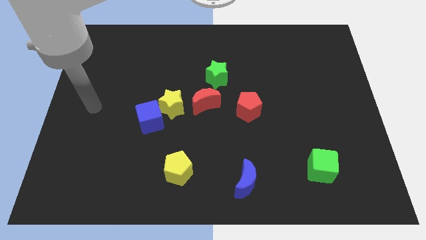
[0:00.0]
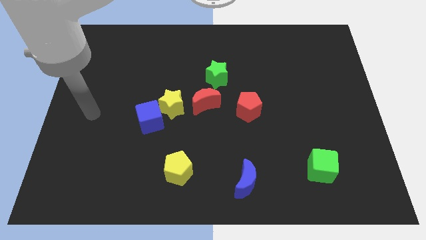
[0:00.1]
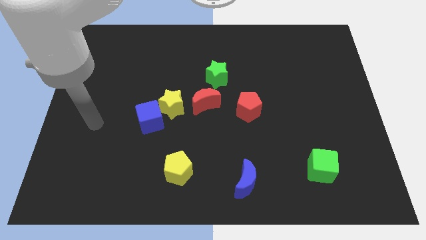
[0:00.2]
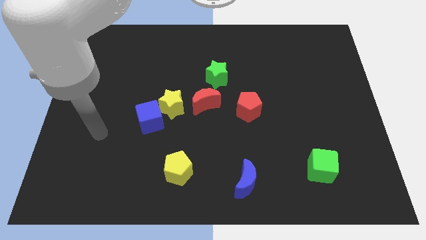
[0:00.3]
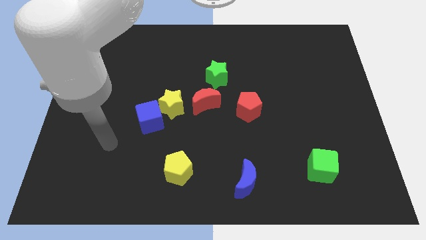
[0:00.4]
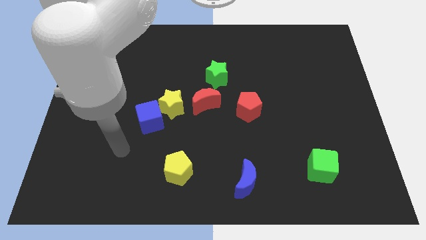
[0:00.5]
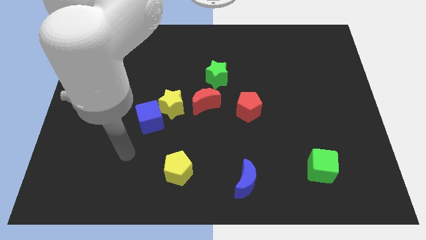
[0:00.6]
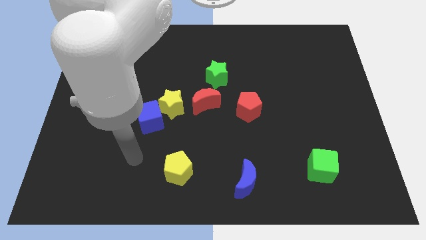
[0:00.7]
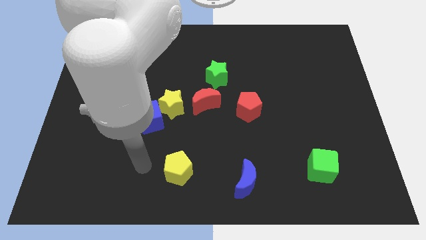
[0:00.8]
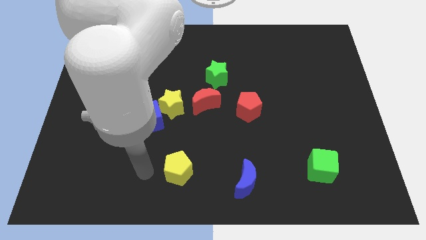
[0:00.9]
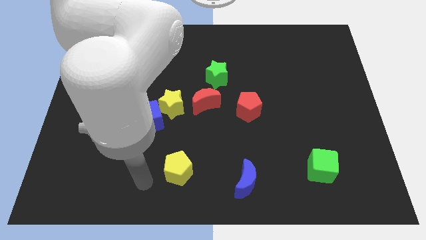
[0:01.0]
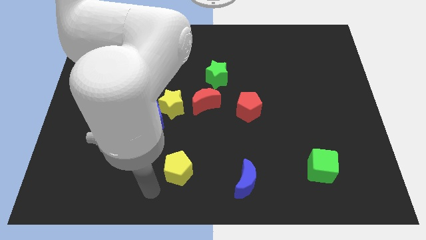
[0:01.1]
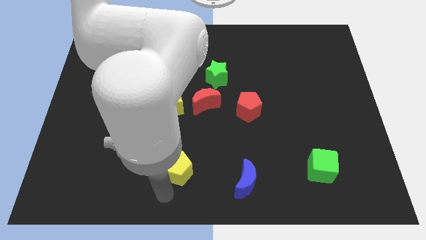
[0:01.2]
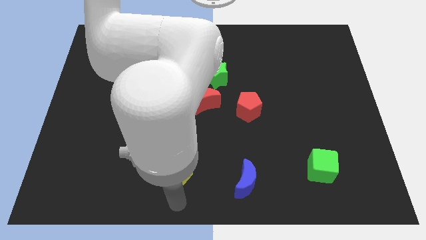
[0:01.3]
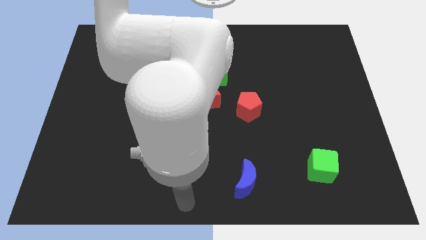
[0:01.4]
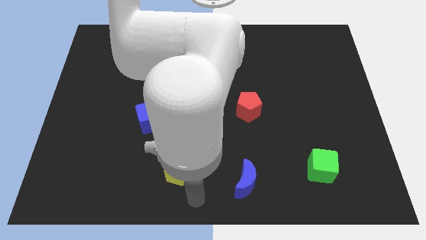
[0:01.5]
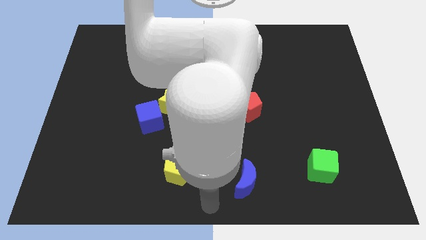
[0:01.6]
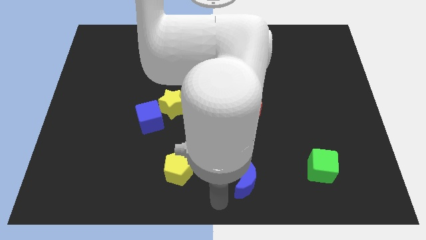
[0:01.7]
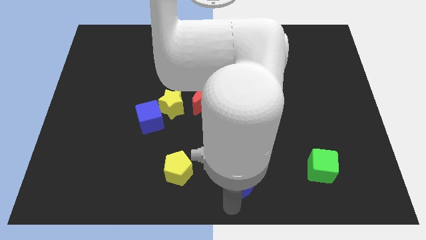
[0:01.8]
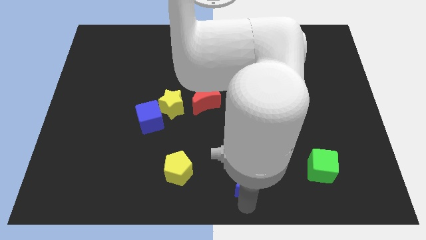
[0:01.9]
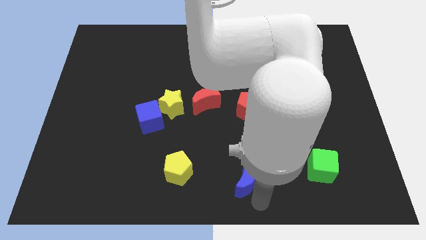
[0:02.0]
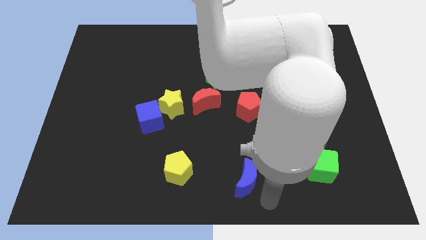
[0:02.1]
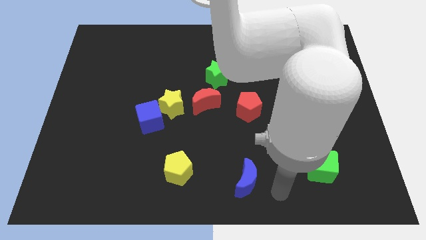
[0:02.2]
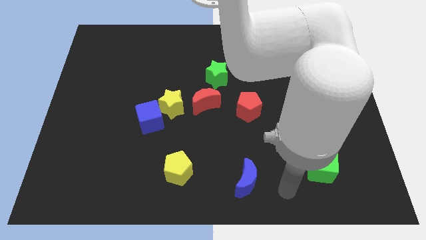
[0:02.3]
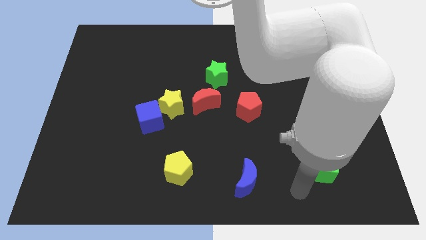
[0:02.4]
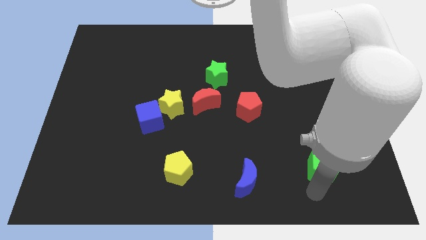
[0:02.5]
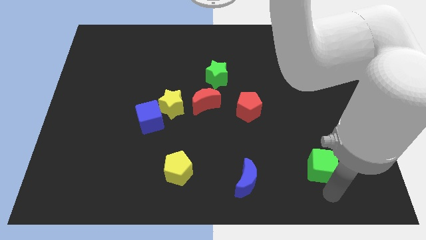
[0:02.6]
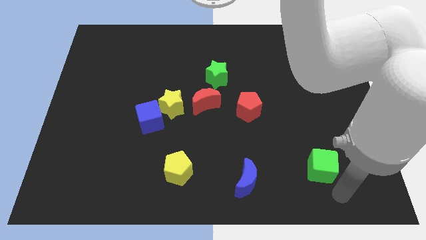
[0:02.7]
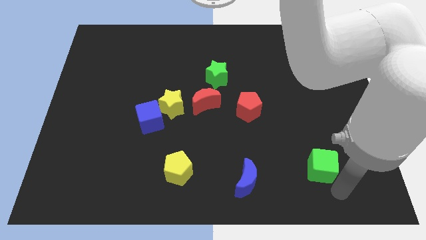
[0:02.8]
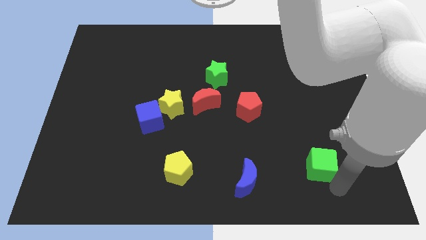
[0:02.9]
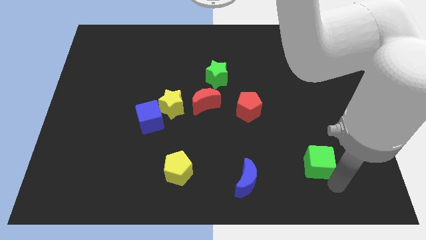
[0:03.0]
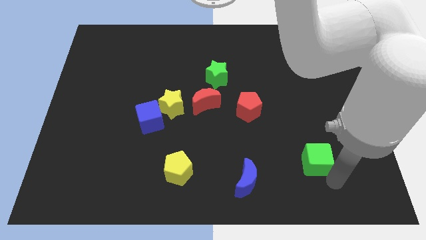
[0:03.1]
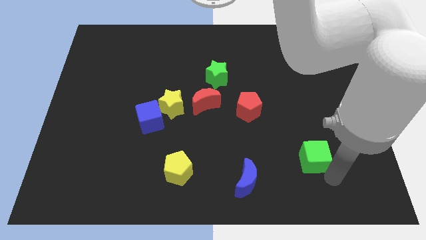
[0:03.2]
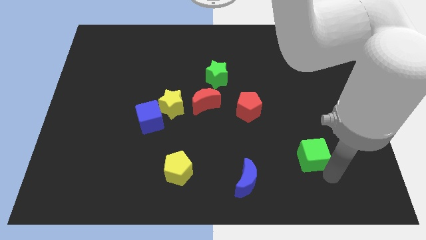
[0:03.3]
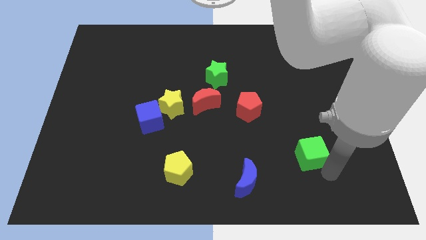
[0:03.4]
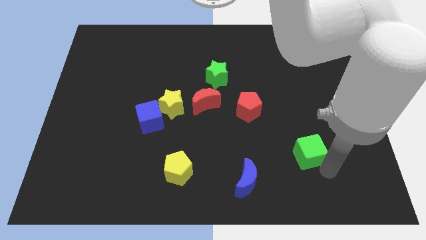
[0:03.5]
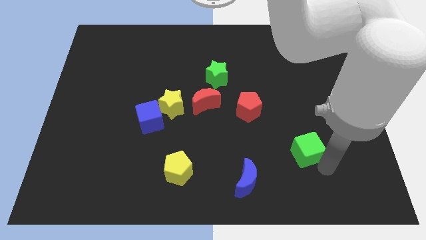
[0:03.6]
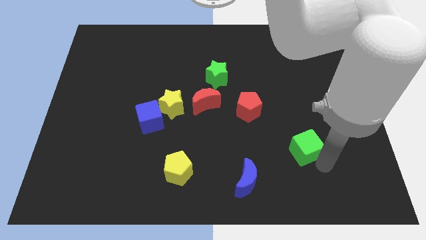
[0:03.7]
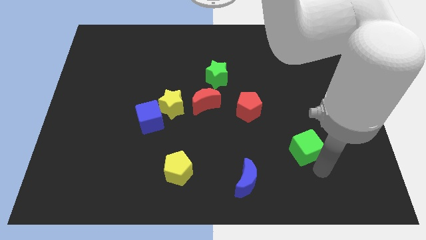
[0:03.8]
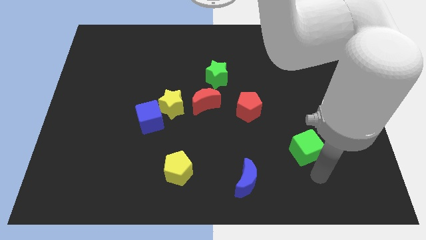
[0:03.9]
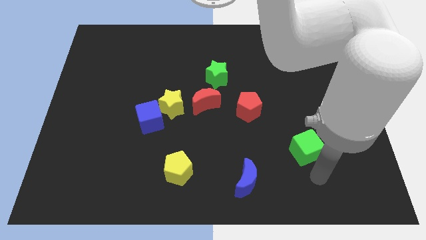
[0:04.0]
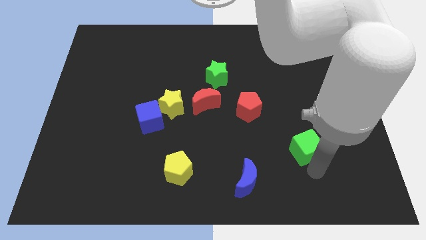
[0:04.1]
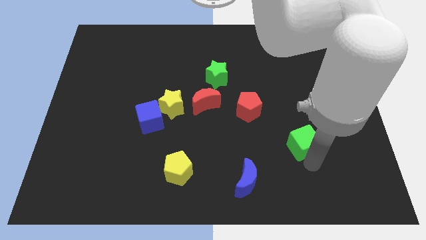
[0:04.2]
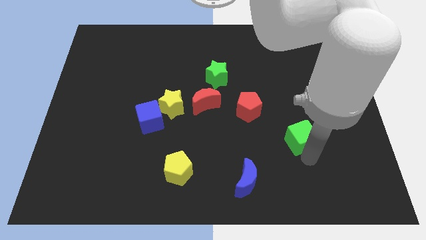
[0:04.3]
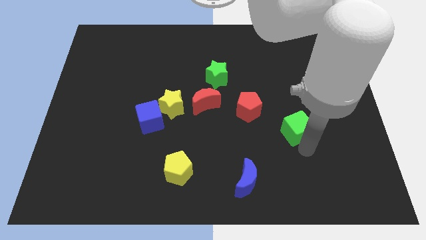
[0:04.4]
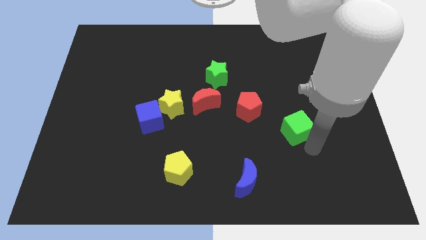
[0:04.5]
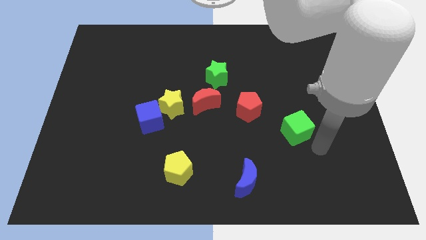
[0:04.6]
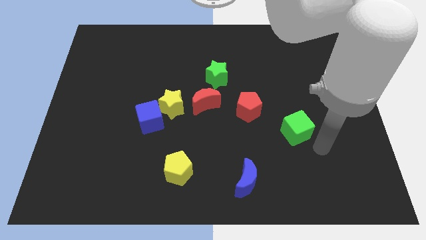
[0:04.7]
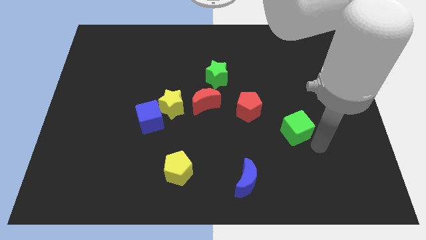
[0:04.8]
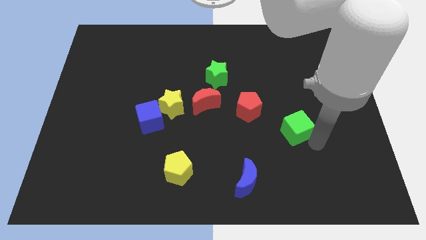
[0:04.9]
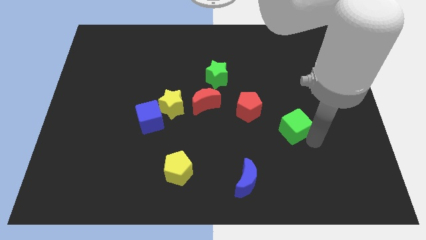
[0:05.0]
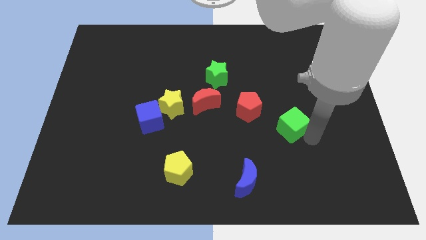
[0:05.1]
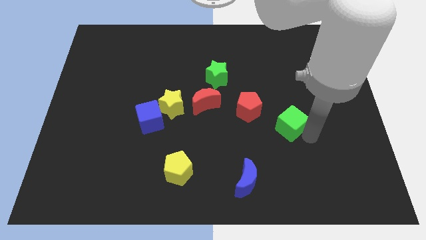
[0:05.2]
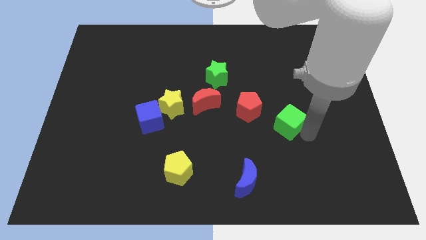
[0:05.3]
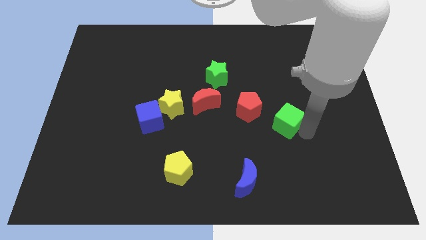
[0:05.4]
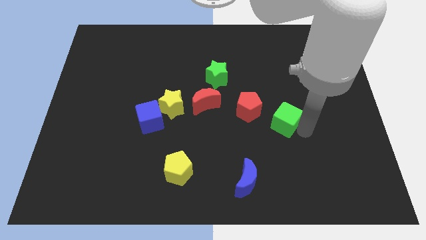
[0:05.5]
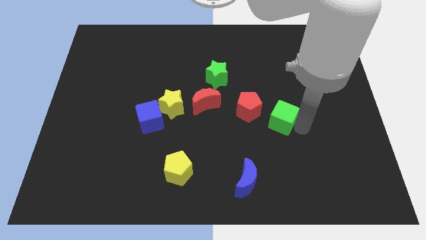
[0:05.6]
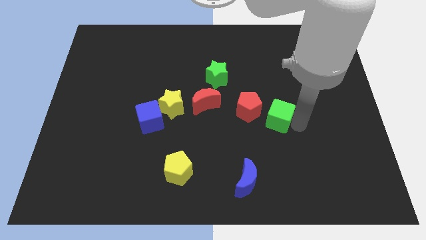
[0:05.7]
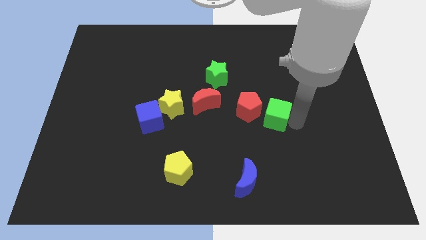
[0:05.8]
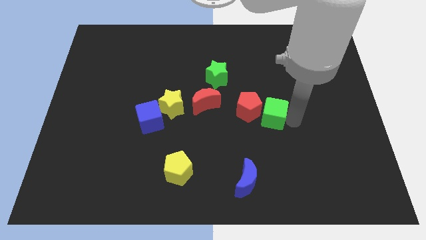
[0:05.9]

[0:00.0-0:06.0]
slide the green cube close to the red pentagon

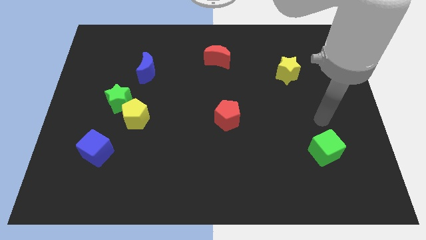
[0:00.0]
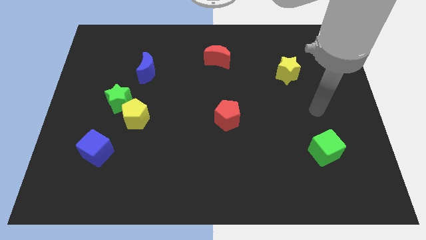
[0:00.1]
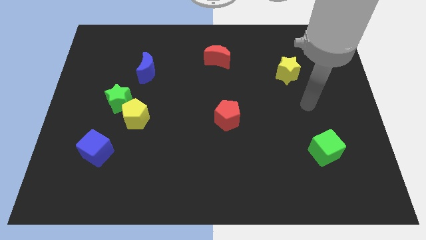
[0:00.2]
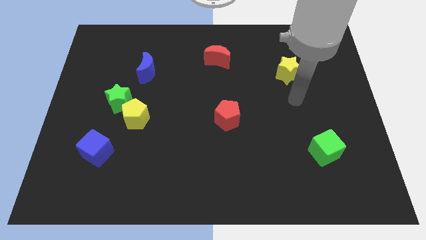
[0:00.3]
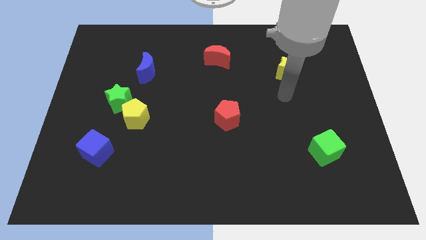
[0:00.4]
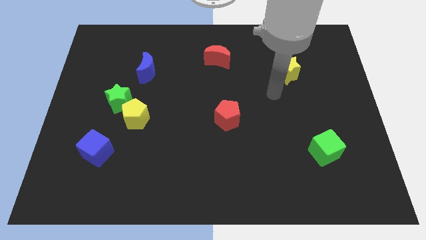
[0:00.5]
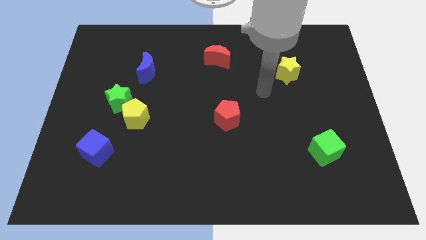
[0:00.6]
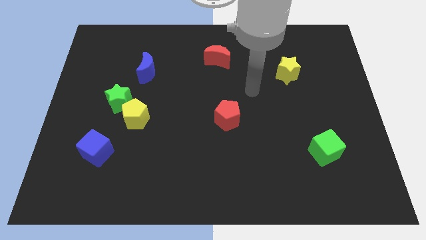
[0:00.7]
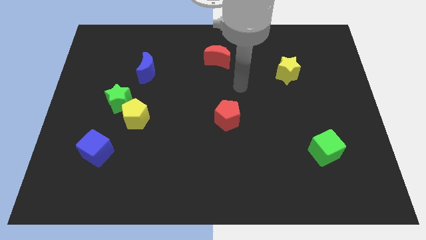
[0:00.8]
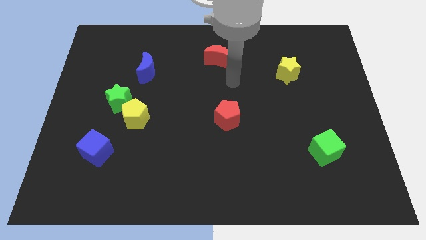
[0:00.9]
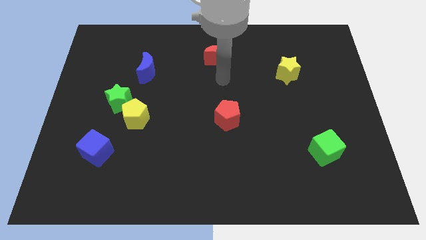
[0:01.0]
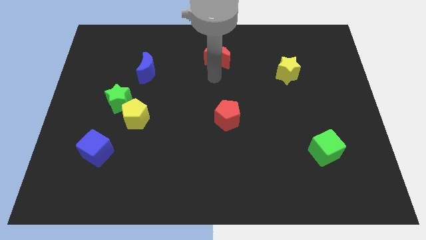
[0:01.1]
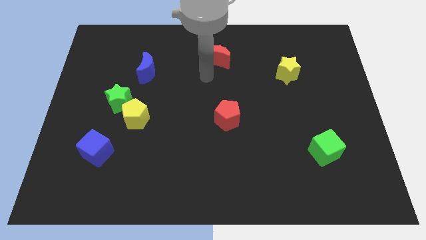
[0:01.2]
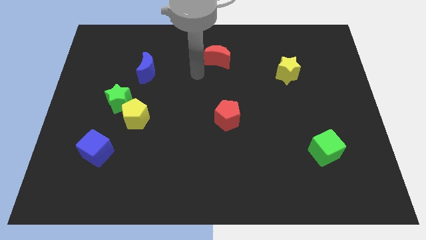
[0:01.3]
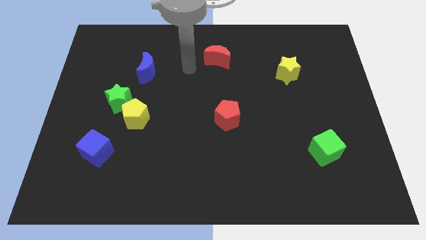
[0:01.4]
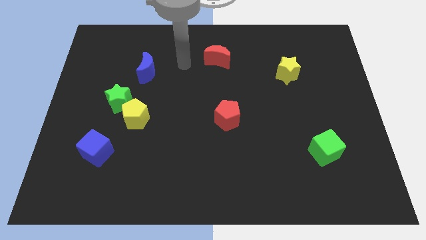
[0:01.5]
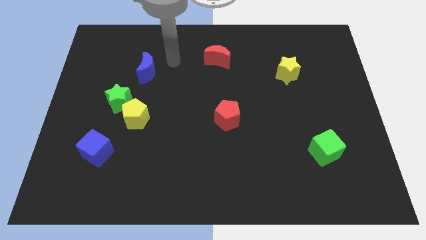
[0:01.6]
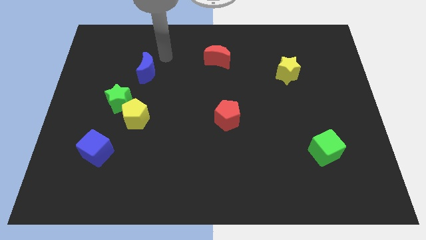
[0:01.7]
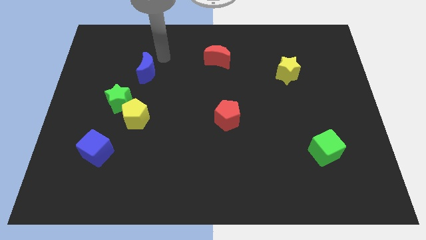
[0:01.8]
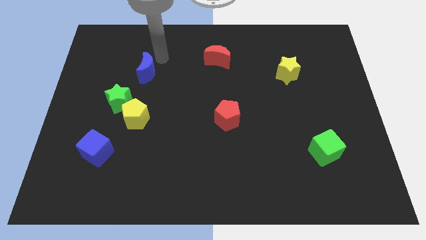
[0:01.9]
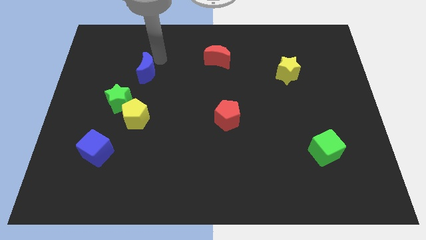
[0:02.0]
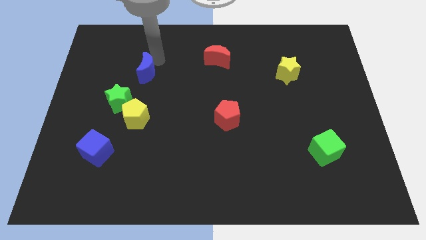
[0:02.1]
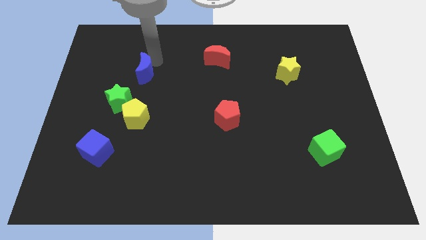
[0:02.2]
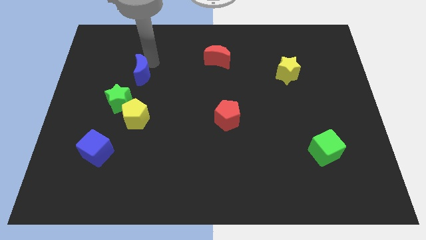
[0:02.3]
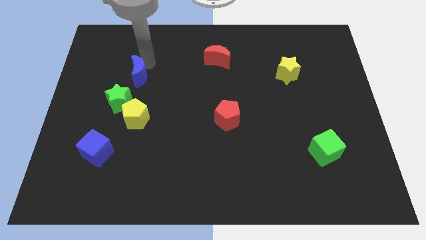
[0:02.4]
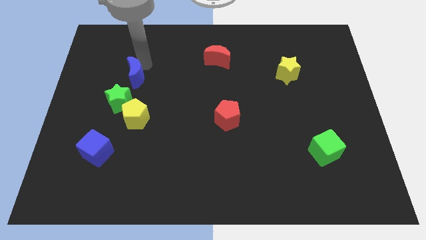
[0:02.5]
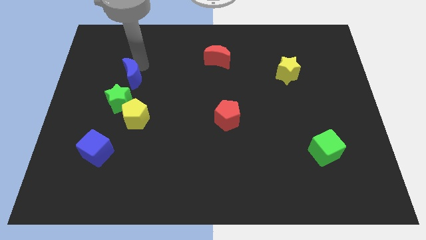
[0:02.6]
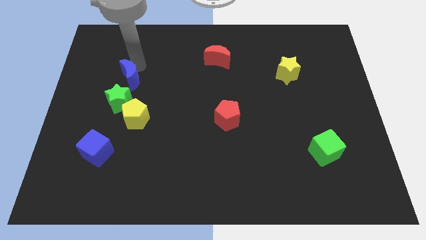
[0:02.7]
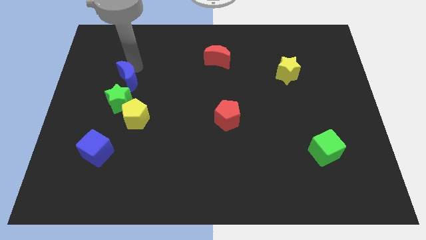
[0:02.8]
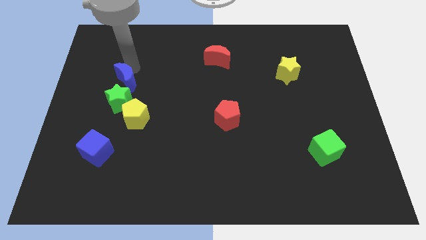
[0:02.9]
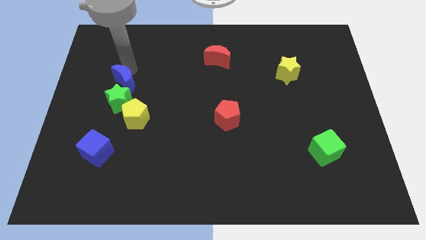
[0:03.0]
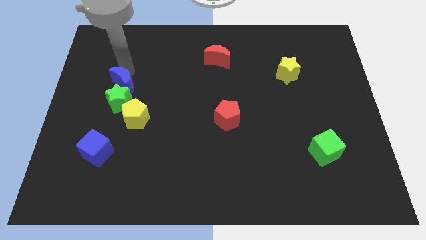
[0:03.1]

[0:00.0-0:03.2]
put the blue moon next to the green star
